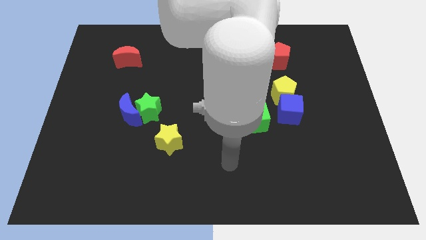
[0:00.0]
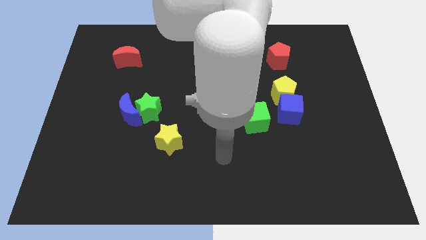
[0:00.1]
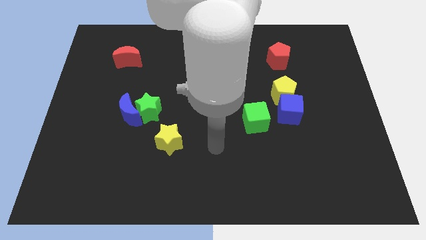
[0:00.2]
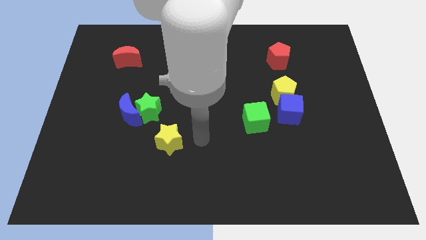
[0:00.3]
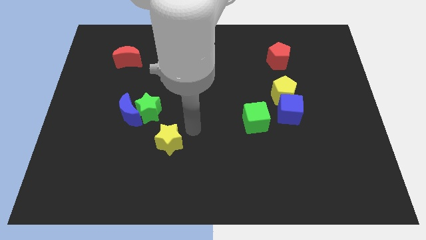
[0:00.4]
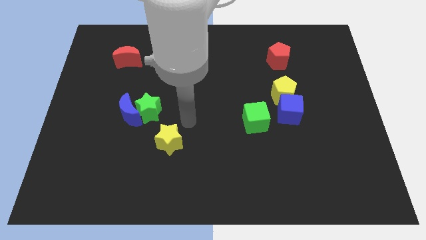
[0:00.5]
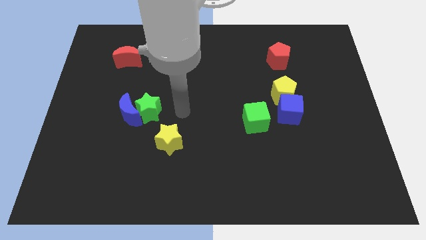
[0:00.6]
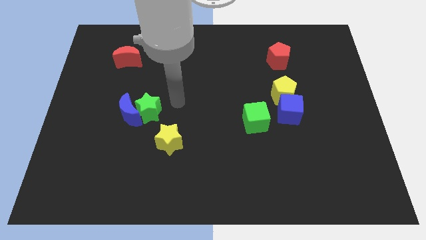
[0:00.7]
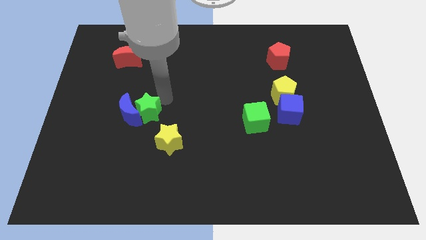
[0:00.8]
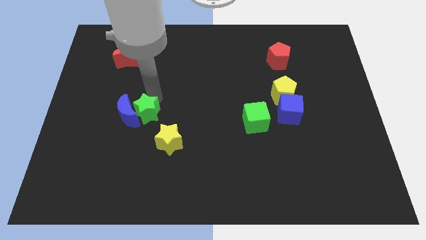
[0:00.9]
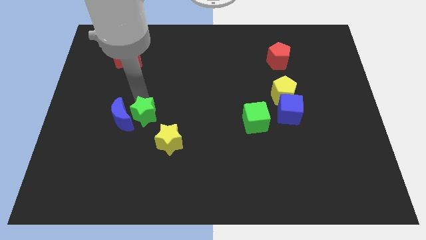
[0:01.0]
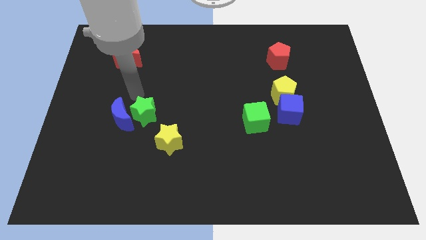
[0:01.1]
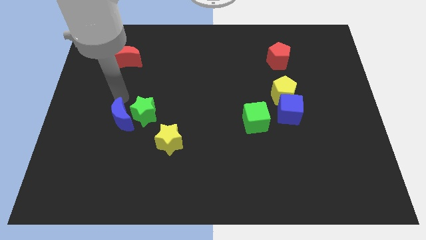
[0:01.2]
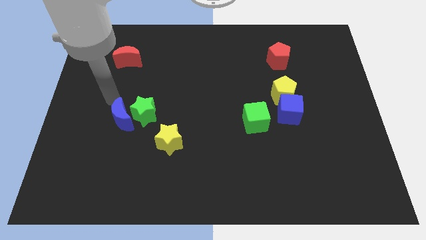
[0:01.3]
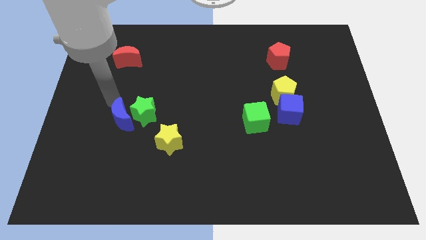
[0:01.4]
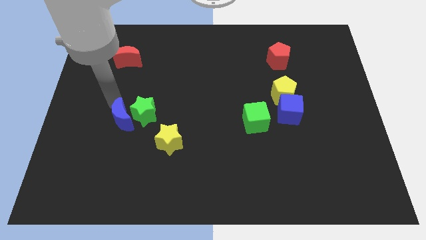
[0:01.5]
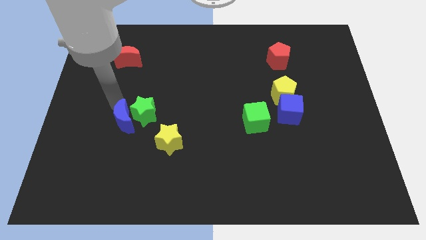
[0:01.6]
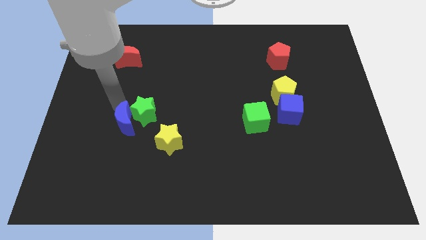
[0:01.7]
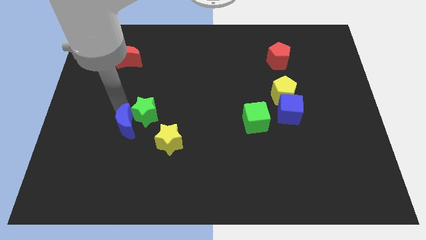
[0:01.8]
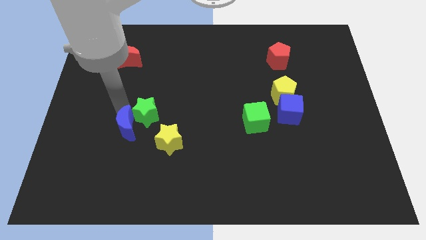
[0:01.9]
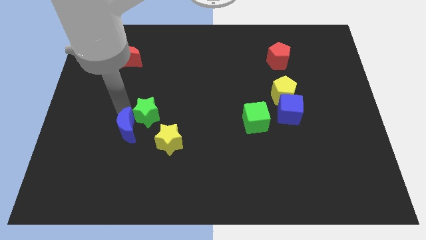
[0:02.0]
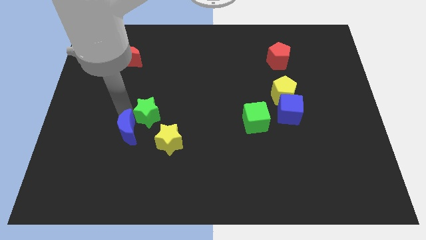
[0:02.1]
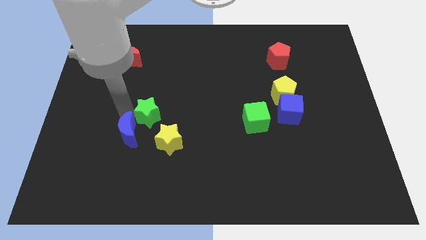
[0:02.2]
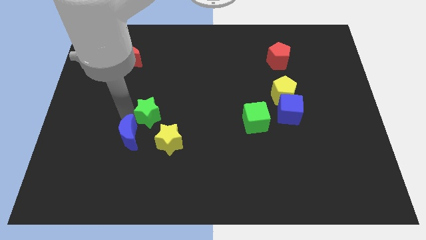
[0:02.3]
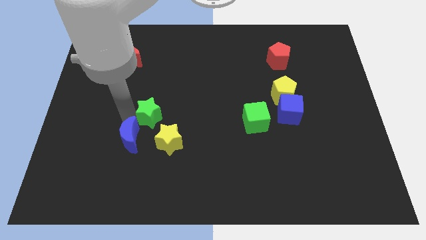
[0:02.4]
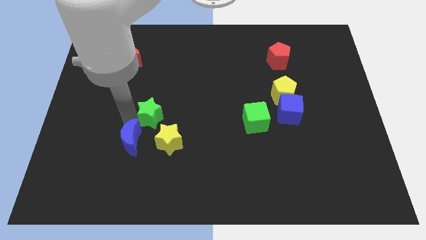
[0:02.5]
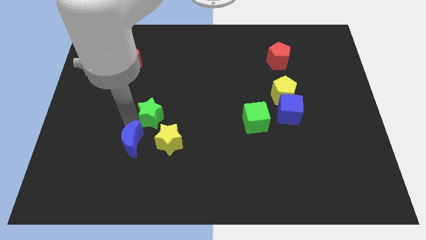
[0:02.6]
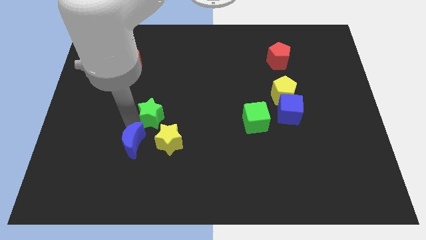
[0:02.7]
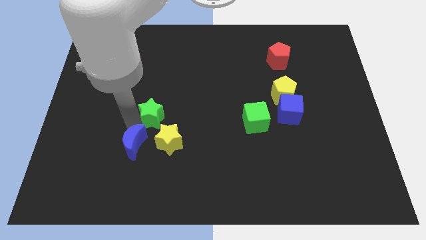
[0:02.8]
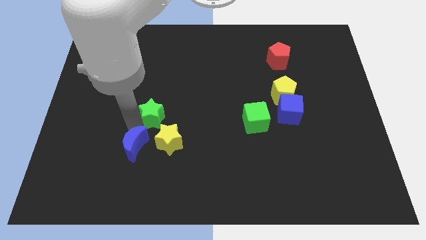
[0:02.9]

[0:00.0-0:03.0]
slightly move the blue moon down and then to the right

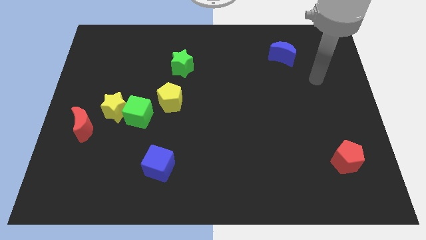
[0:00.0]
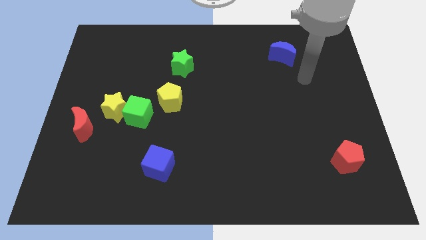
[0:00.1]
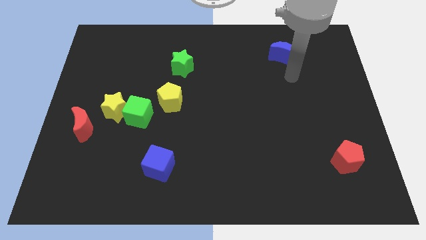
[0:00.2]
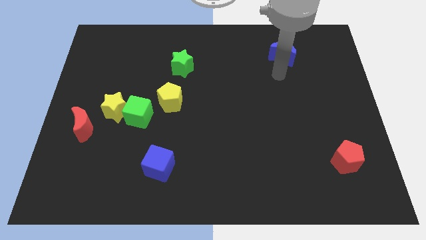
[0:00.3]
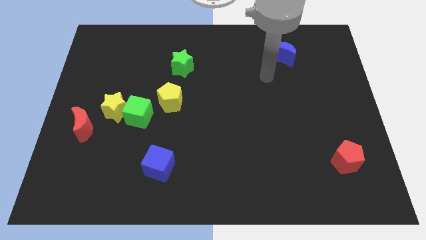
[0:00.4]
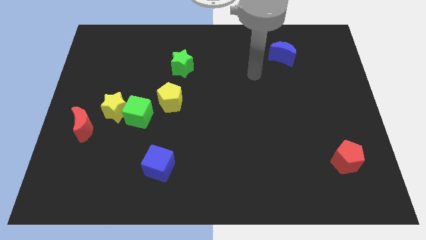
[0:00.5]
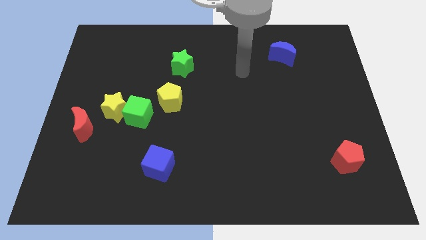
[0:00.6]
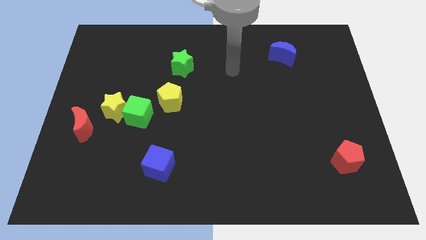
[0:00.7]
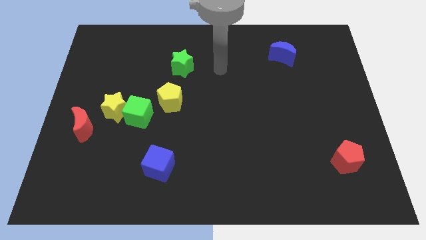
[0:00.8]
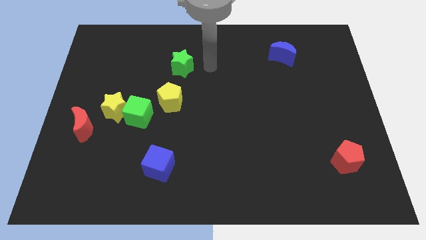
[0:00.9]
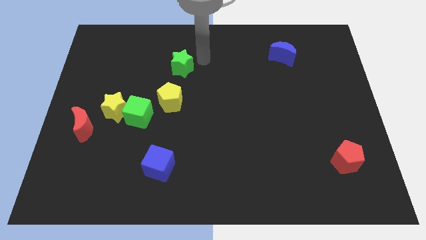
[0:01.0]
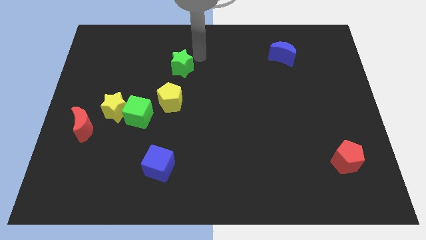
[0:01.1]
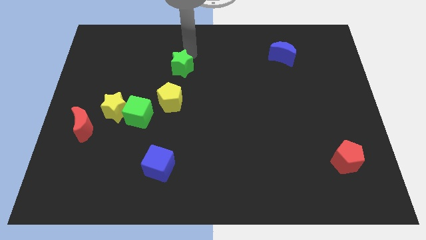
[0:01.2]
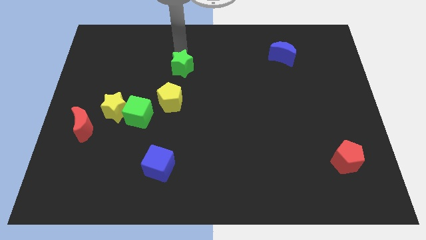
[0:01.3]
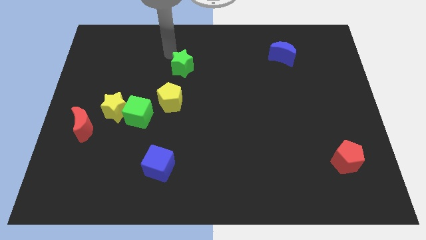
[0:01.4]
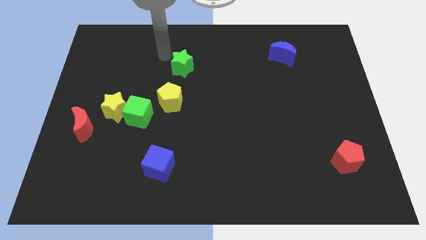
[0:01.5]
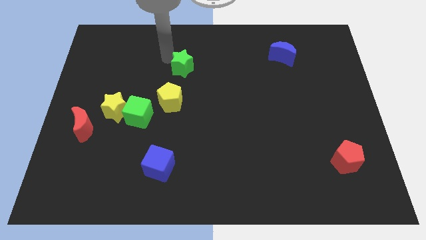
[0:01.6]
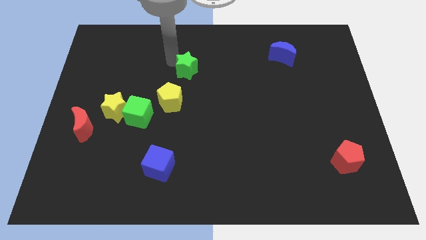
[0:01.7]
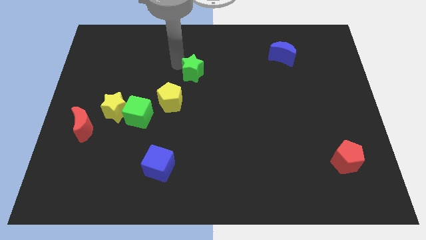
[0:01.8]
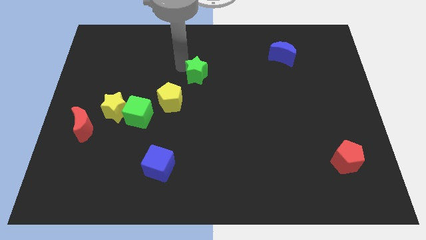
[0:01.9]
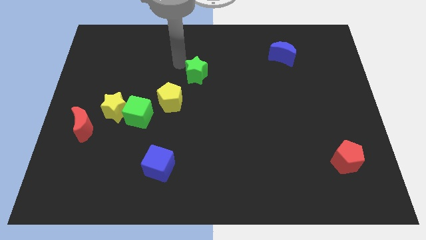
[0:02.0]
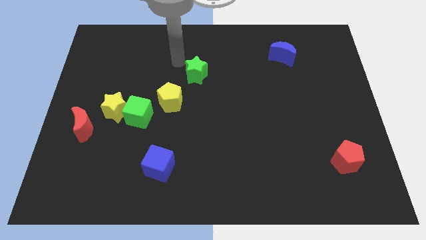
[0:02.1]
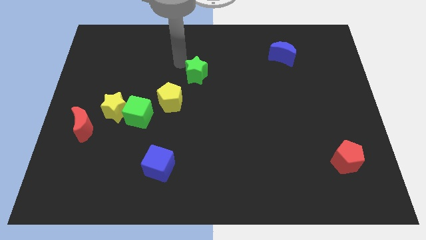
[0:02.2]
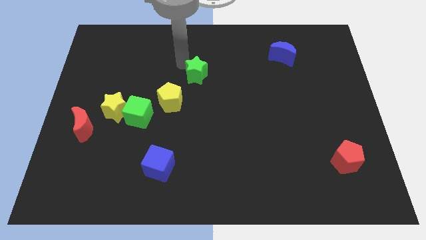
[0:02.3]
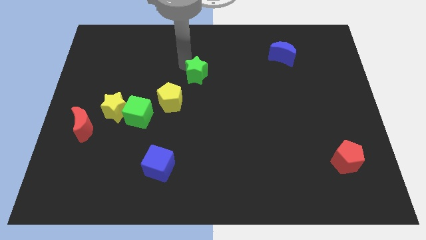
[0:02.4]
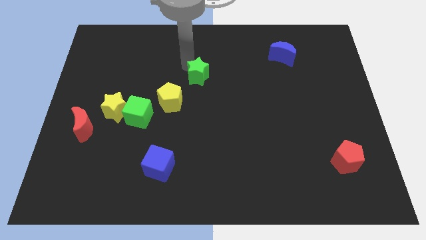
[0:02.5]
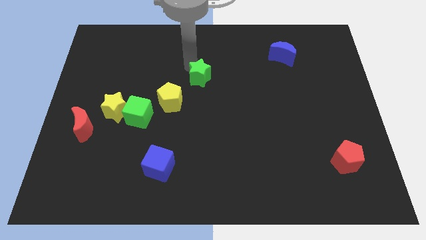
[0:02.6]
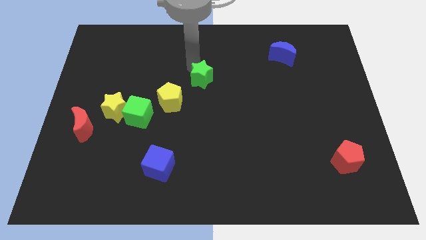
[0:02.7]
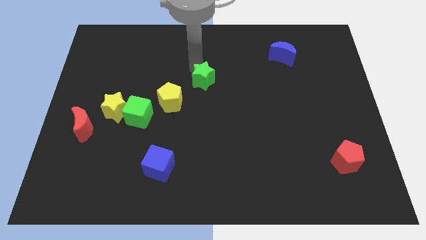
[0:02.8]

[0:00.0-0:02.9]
slide the green star a little bit down and to the right diagonally

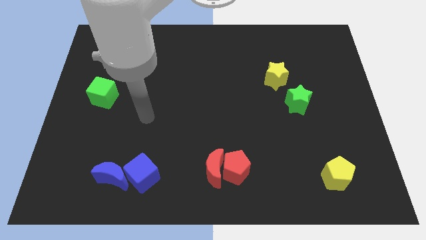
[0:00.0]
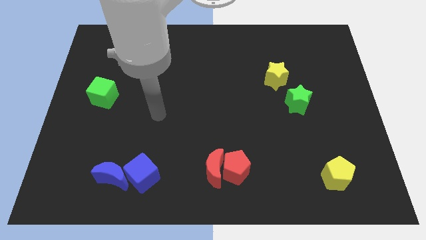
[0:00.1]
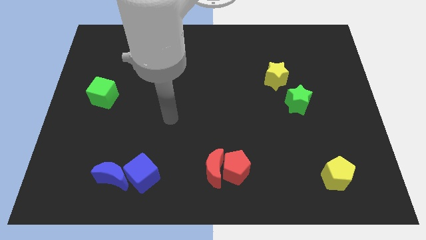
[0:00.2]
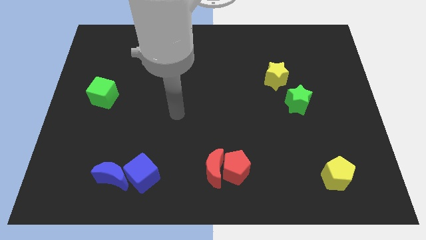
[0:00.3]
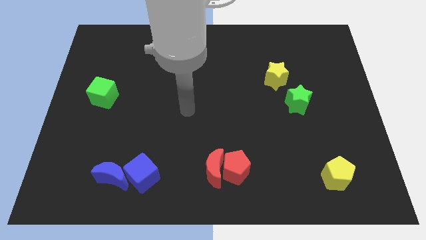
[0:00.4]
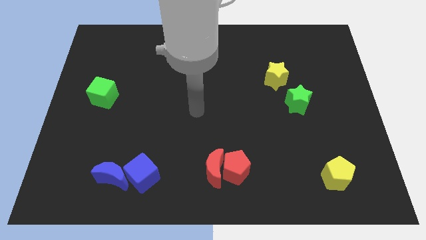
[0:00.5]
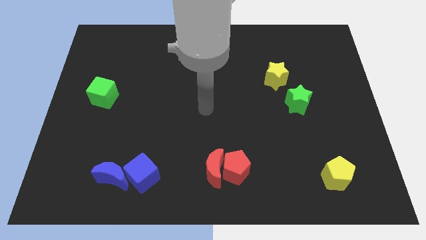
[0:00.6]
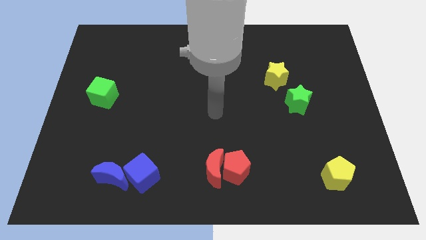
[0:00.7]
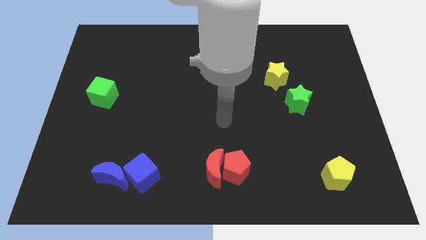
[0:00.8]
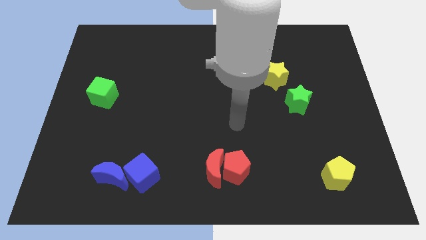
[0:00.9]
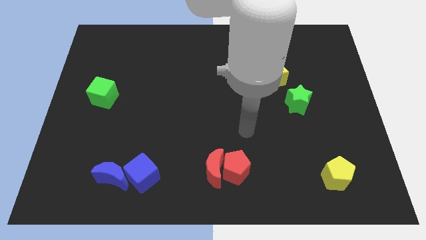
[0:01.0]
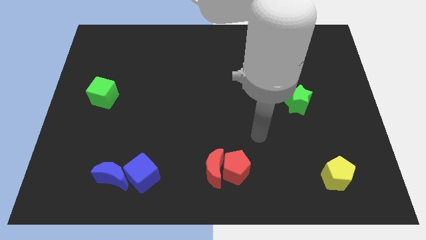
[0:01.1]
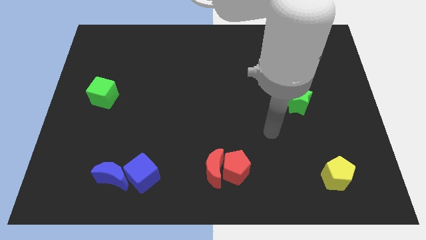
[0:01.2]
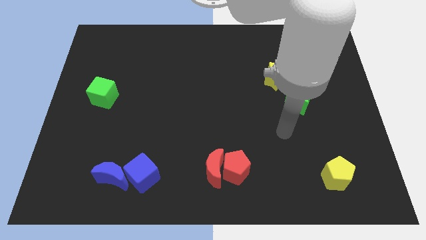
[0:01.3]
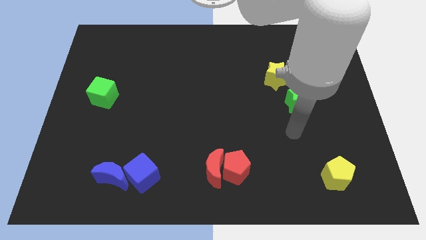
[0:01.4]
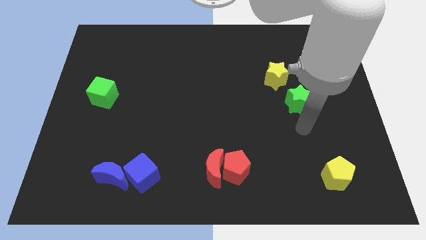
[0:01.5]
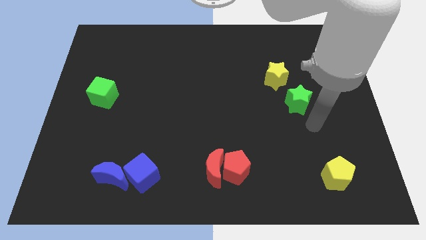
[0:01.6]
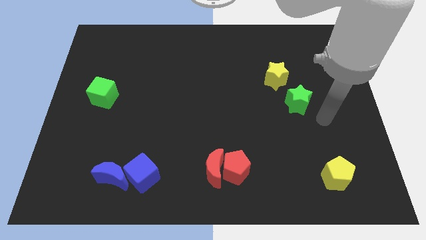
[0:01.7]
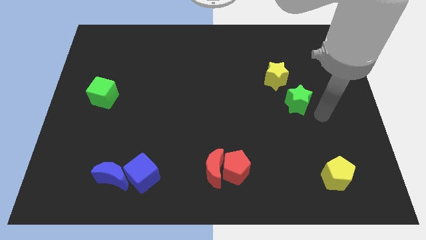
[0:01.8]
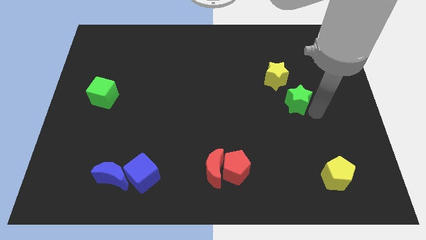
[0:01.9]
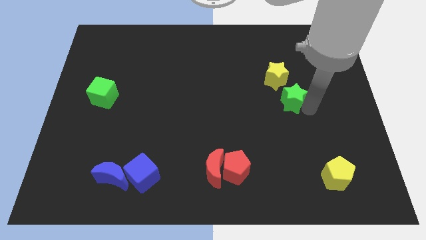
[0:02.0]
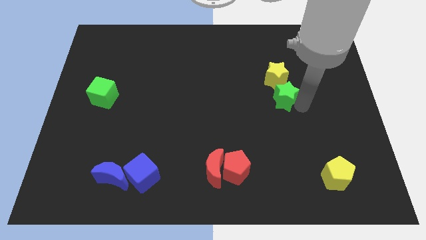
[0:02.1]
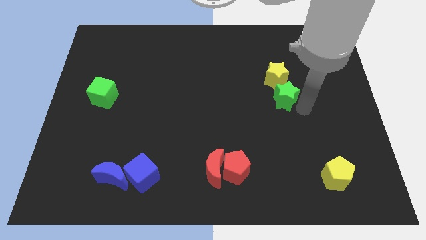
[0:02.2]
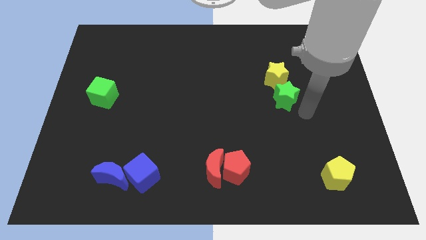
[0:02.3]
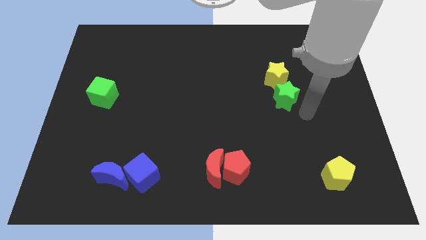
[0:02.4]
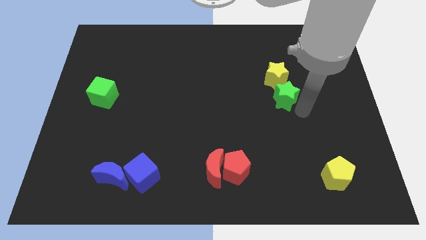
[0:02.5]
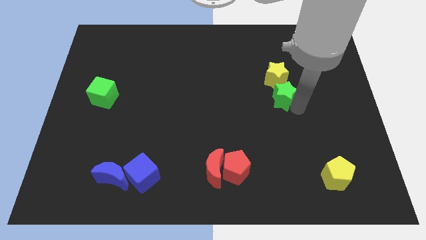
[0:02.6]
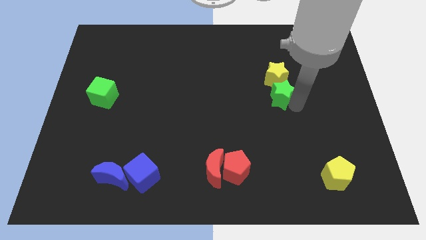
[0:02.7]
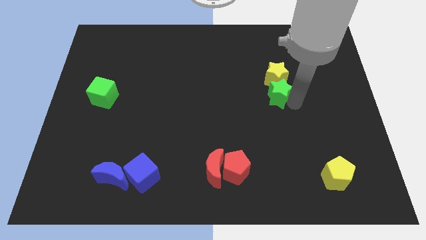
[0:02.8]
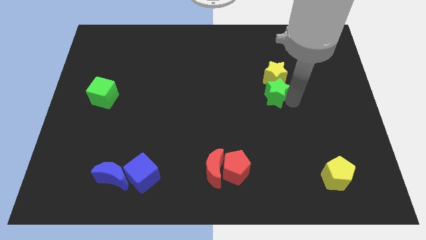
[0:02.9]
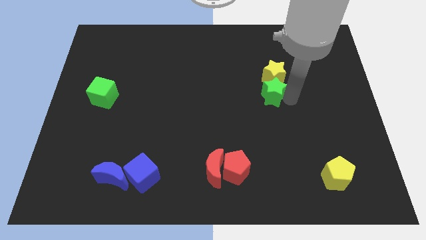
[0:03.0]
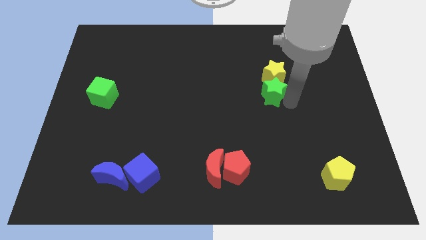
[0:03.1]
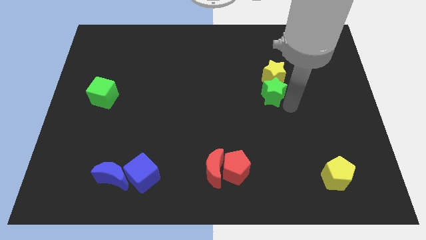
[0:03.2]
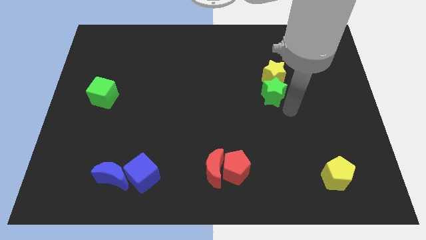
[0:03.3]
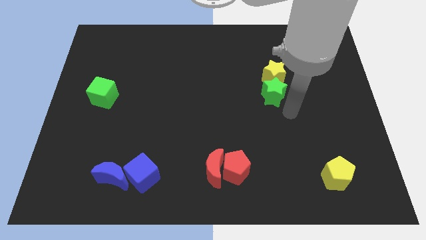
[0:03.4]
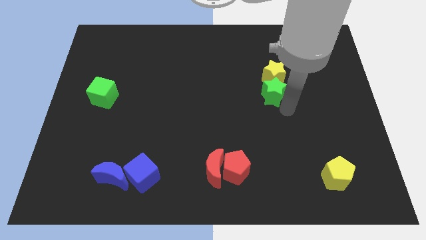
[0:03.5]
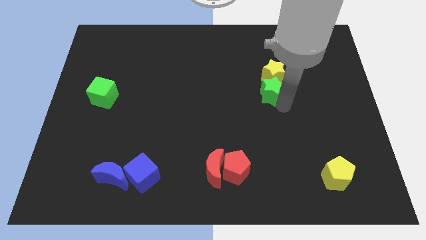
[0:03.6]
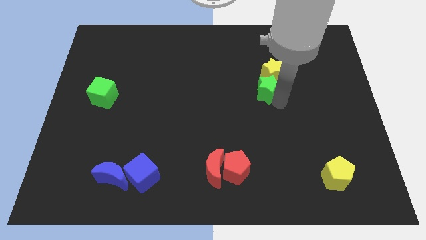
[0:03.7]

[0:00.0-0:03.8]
slightly push the green star up and then left
